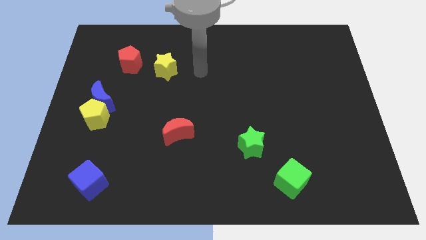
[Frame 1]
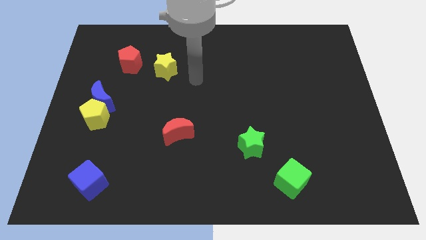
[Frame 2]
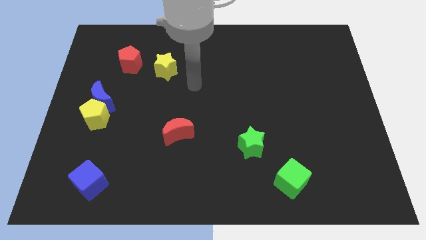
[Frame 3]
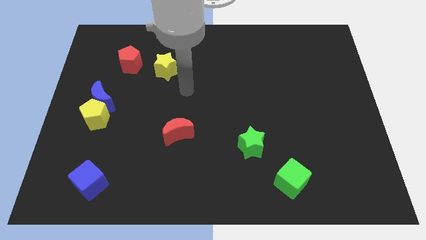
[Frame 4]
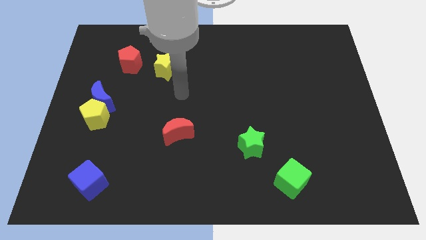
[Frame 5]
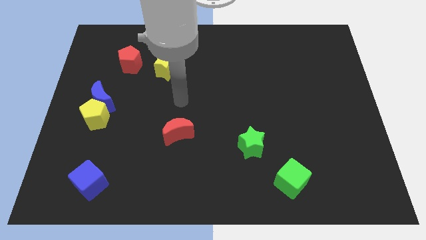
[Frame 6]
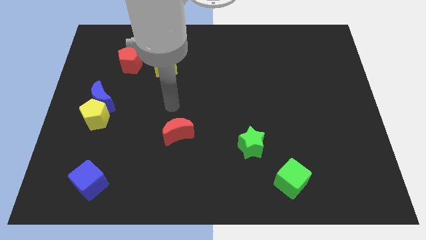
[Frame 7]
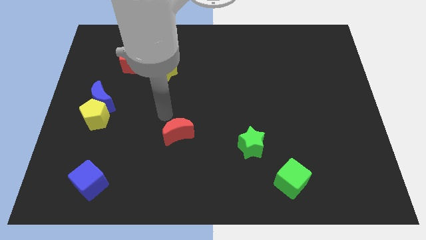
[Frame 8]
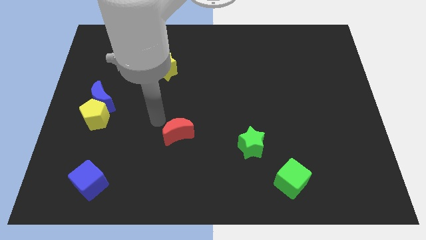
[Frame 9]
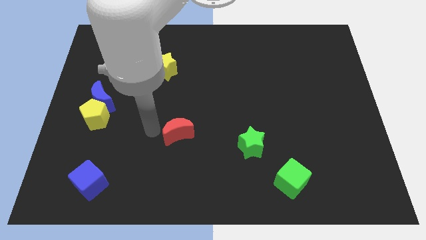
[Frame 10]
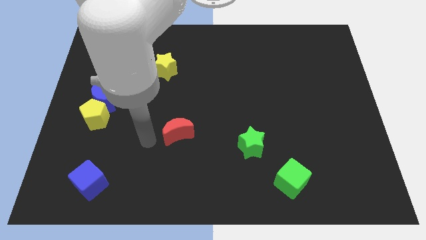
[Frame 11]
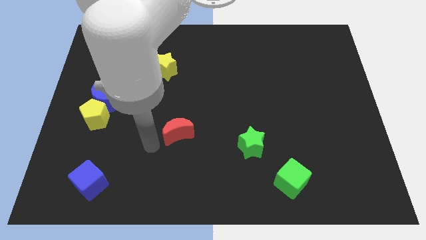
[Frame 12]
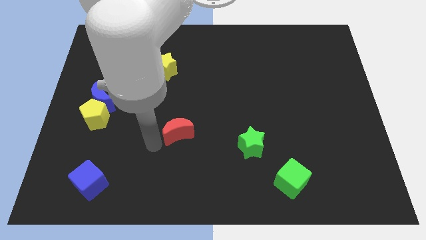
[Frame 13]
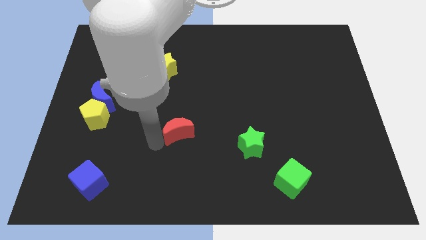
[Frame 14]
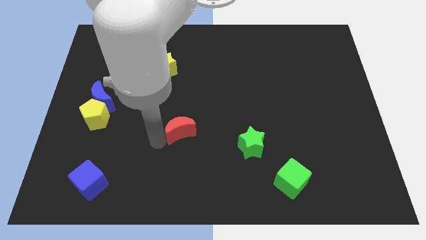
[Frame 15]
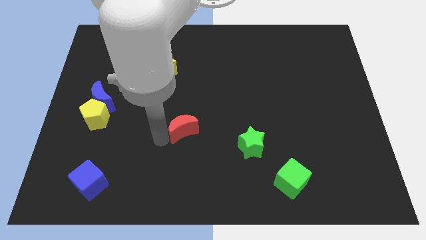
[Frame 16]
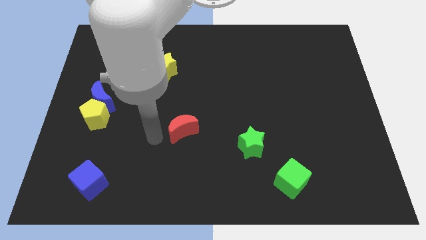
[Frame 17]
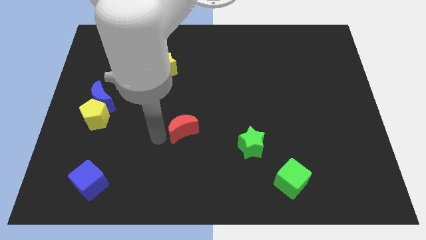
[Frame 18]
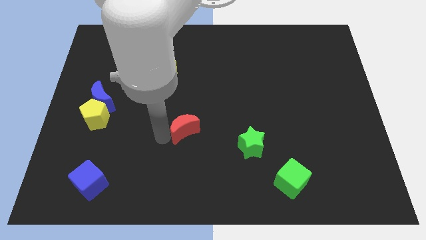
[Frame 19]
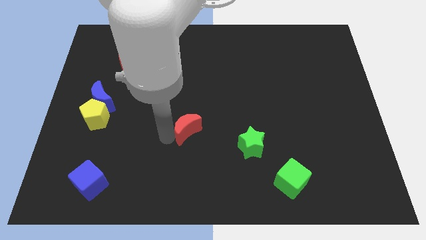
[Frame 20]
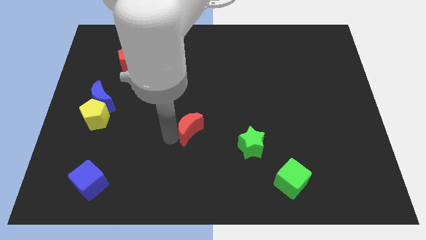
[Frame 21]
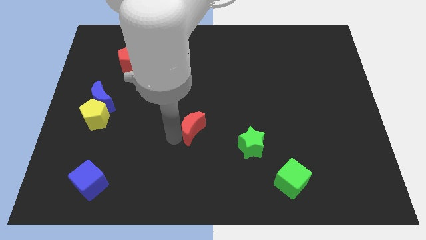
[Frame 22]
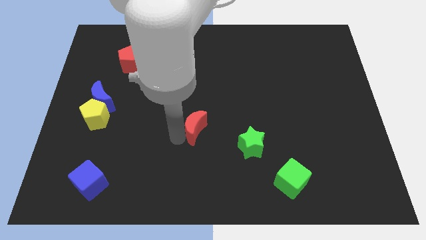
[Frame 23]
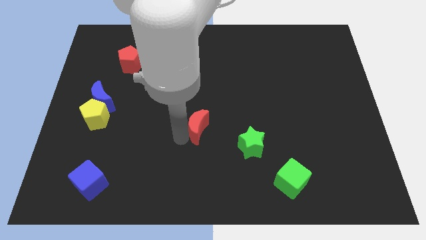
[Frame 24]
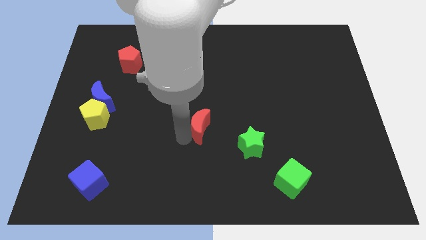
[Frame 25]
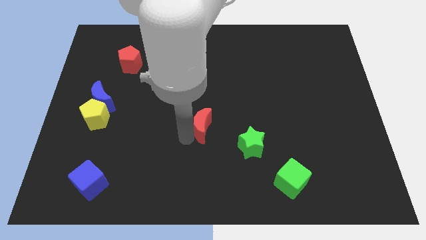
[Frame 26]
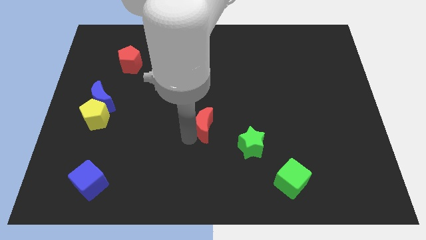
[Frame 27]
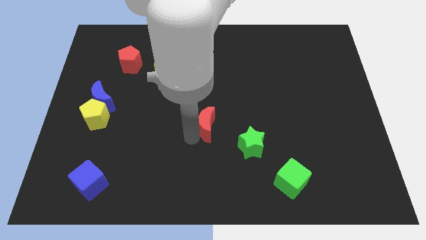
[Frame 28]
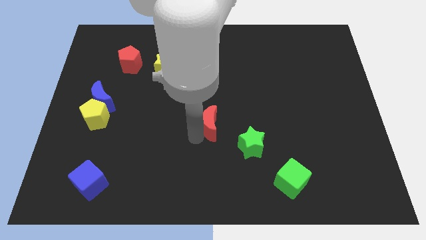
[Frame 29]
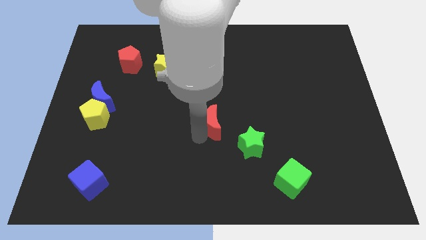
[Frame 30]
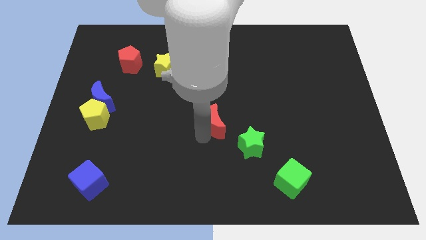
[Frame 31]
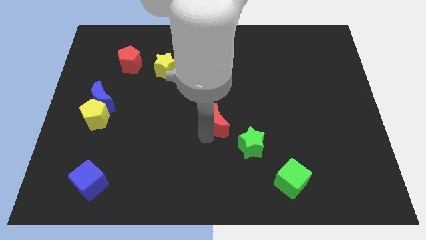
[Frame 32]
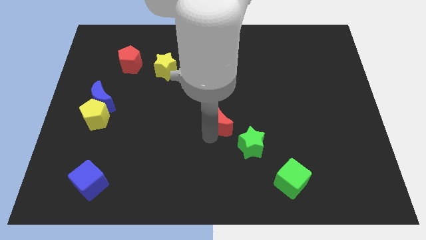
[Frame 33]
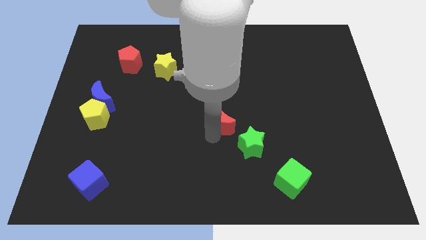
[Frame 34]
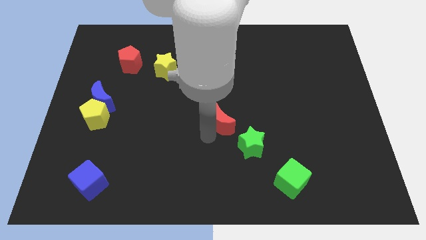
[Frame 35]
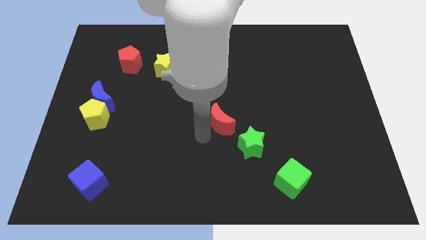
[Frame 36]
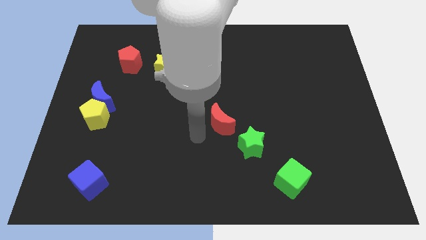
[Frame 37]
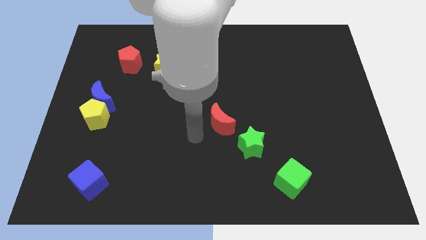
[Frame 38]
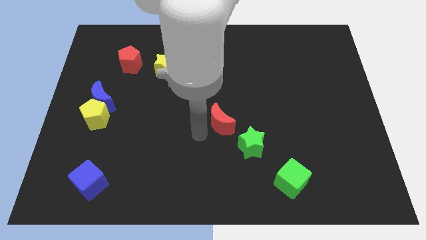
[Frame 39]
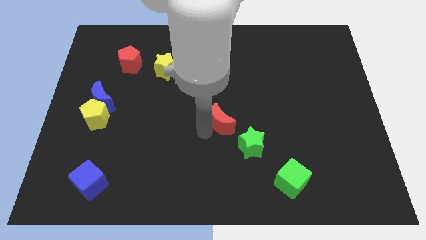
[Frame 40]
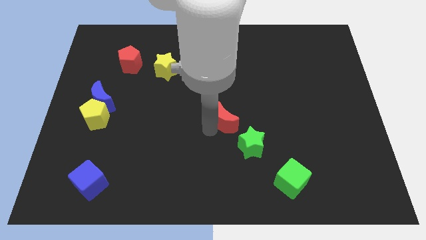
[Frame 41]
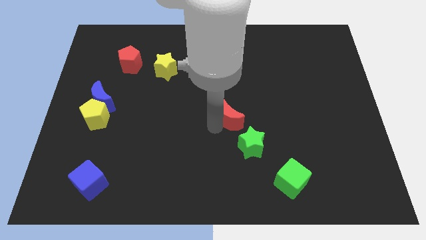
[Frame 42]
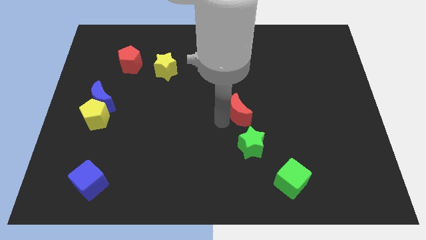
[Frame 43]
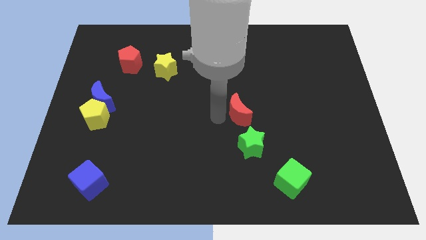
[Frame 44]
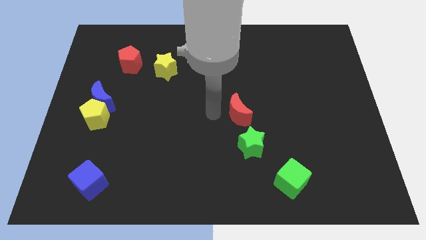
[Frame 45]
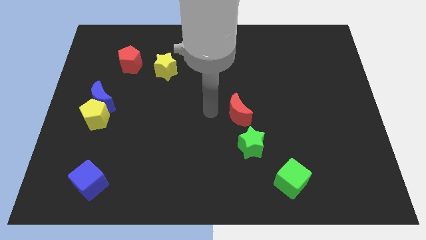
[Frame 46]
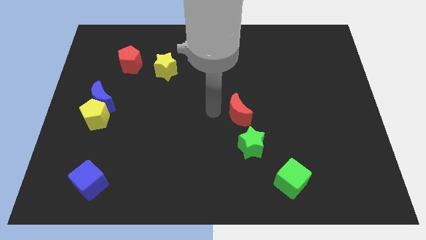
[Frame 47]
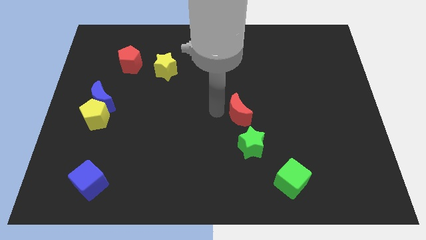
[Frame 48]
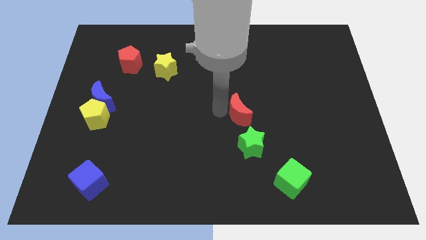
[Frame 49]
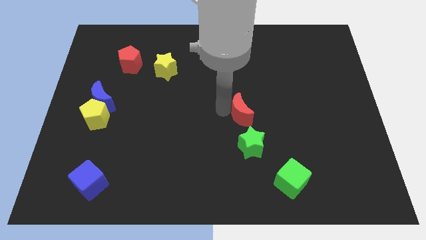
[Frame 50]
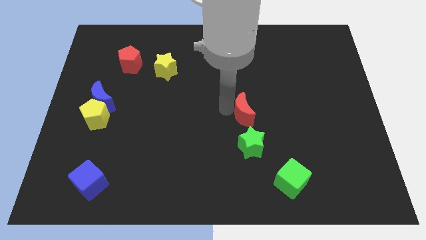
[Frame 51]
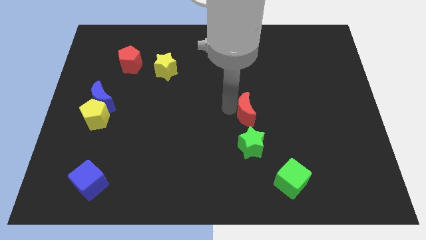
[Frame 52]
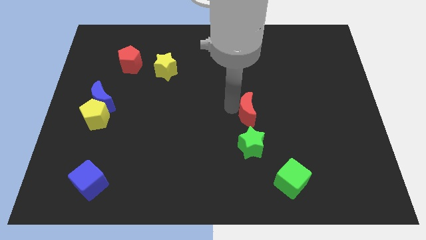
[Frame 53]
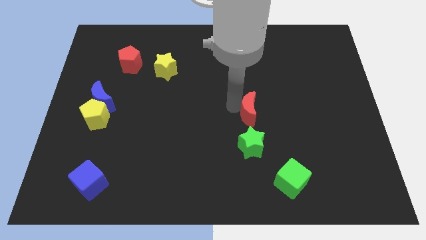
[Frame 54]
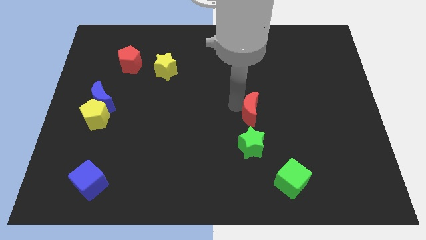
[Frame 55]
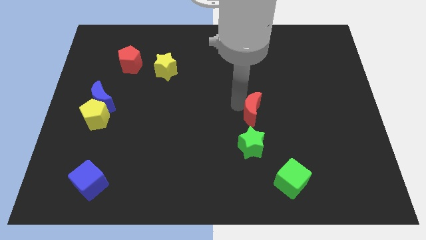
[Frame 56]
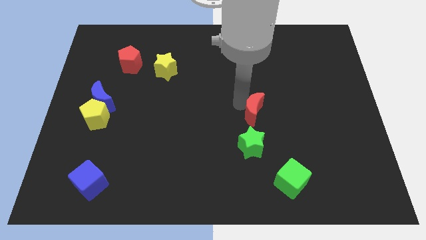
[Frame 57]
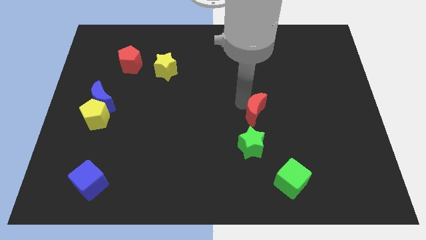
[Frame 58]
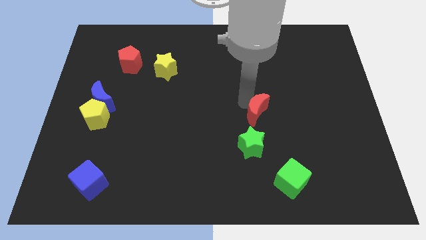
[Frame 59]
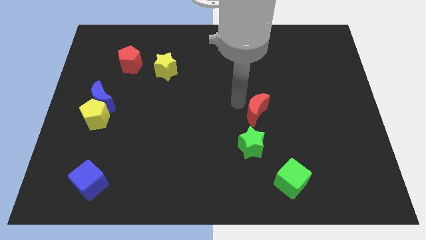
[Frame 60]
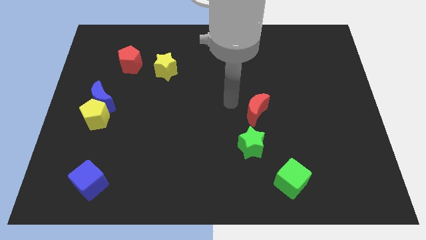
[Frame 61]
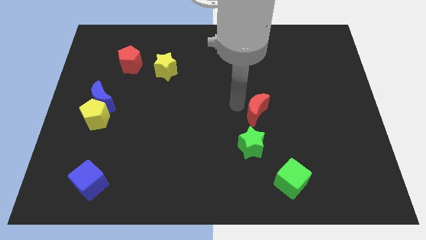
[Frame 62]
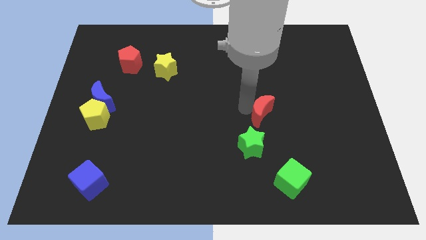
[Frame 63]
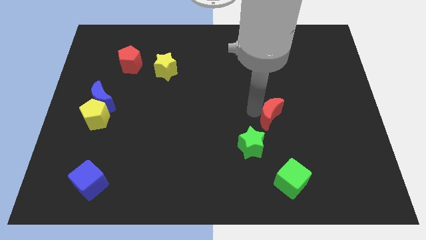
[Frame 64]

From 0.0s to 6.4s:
move the red moon to the right

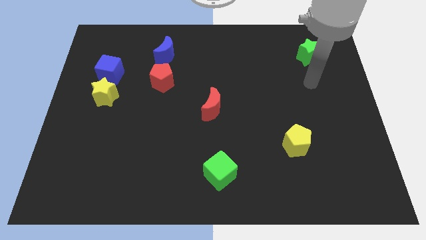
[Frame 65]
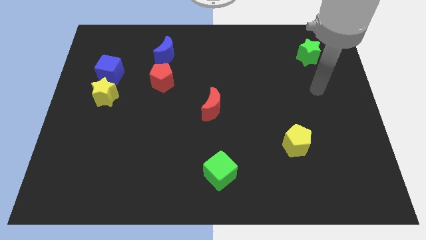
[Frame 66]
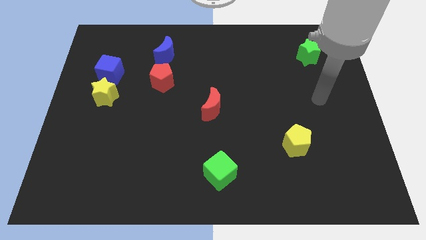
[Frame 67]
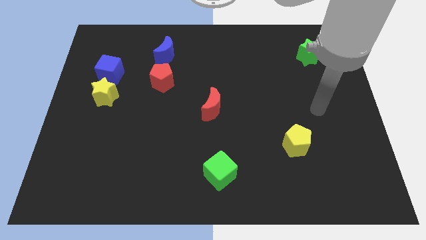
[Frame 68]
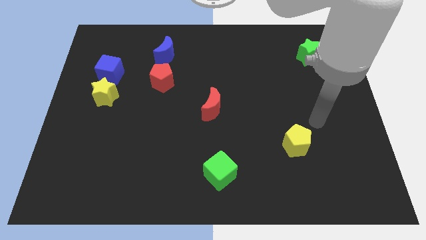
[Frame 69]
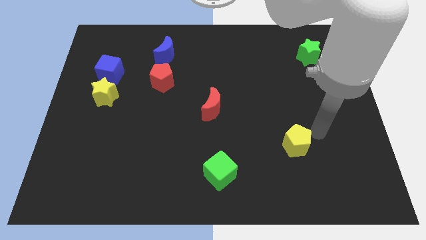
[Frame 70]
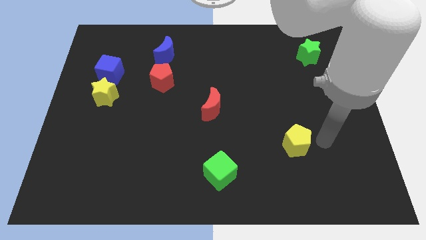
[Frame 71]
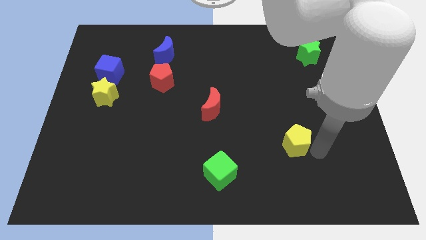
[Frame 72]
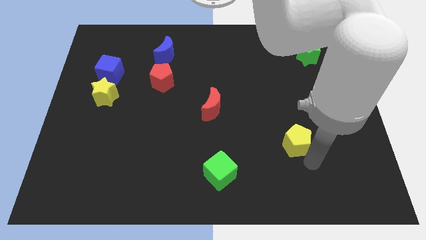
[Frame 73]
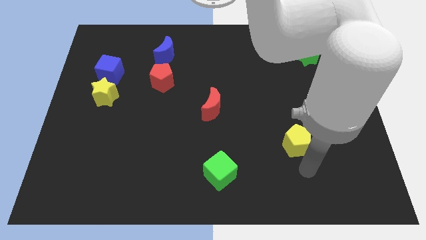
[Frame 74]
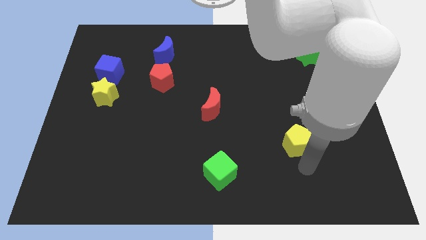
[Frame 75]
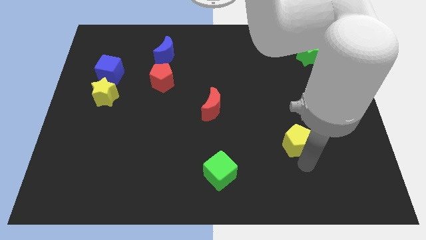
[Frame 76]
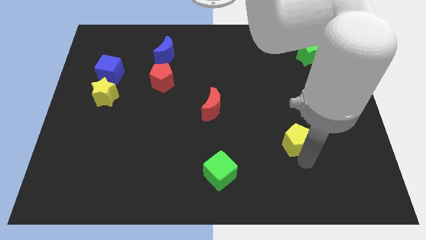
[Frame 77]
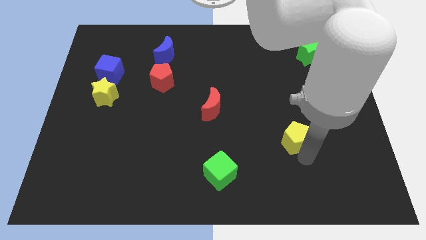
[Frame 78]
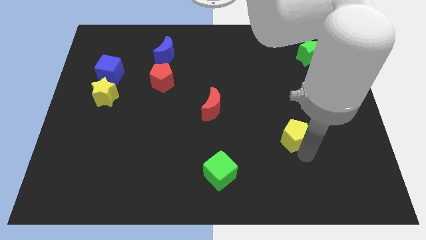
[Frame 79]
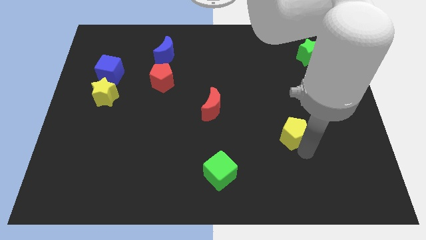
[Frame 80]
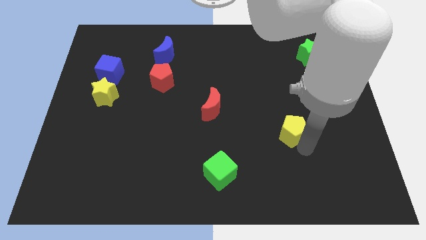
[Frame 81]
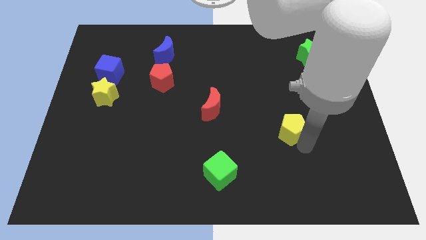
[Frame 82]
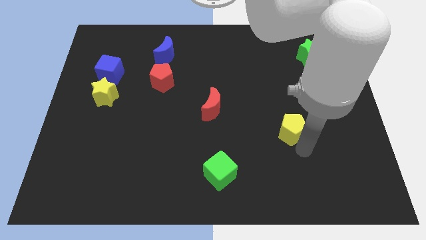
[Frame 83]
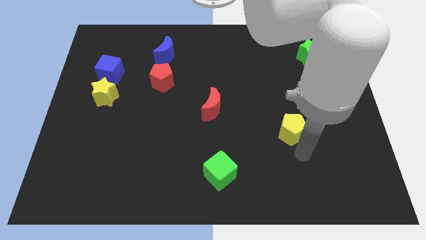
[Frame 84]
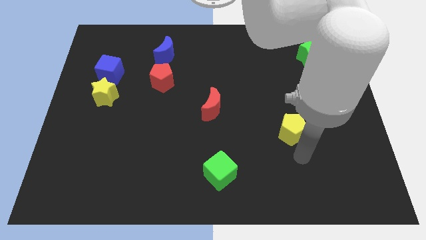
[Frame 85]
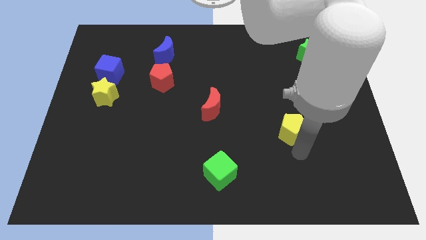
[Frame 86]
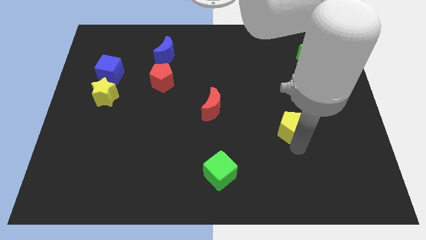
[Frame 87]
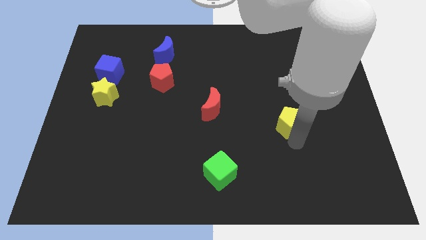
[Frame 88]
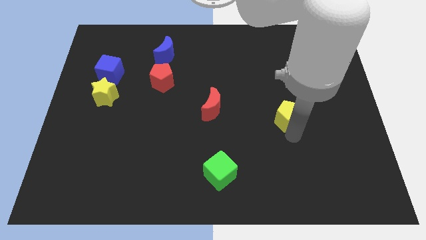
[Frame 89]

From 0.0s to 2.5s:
slightly move the yellow pentagon up
